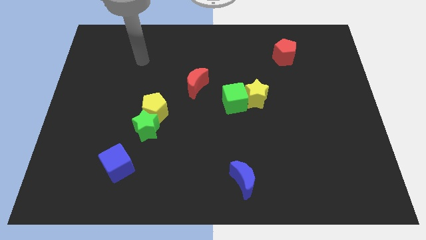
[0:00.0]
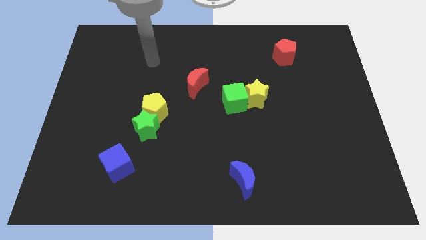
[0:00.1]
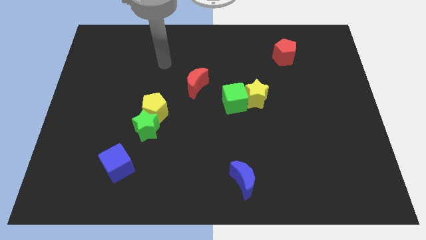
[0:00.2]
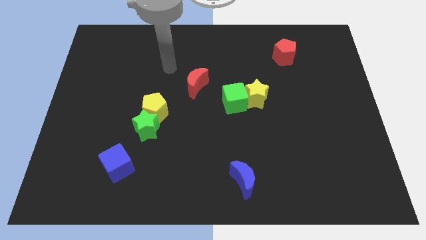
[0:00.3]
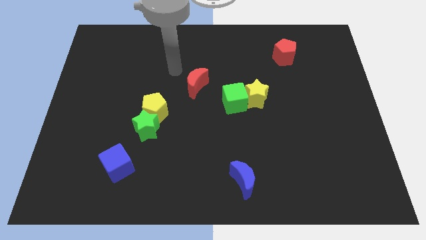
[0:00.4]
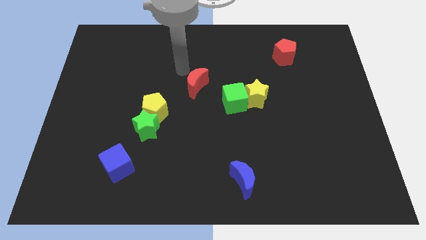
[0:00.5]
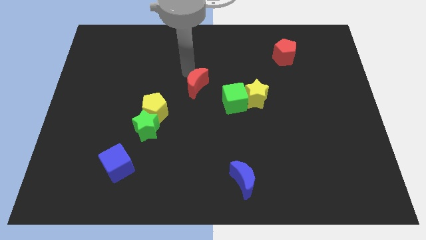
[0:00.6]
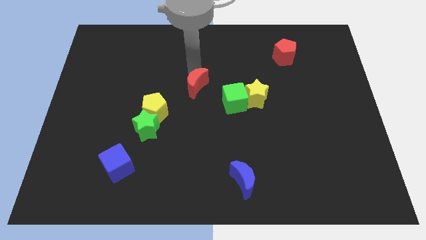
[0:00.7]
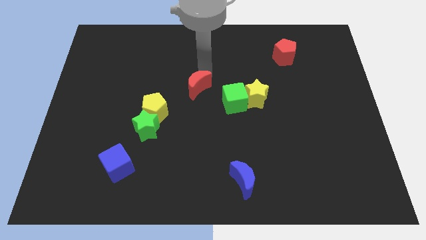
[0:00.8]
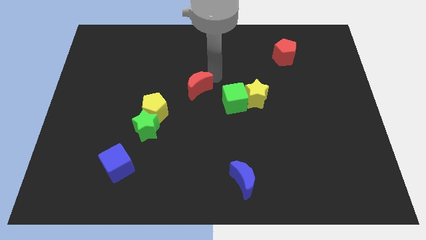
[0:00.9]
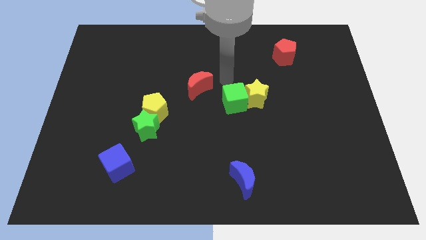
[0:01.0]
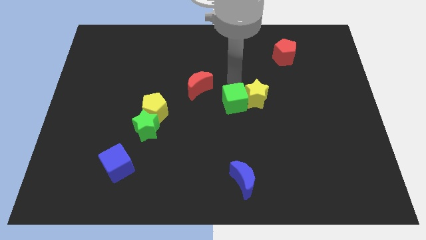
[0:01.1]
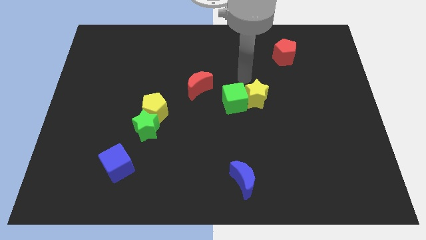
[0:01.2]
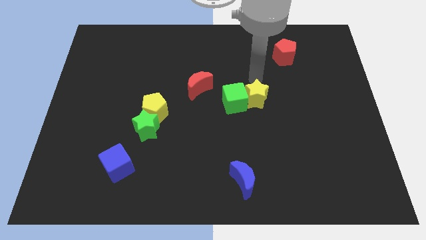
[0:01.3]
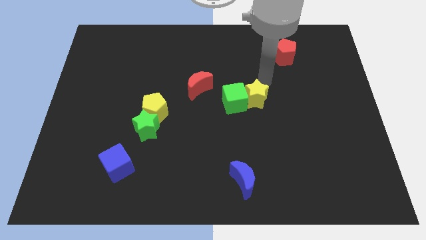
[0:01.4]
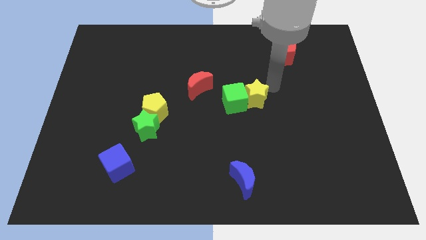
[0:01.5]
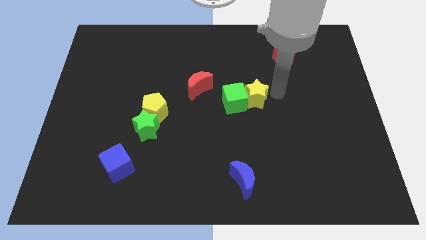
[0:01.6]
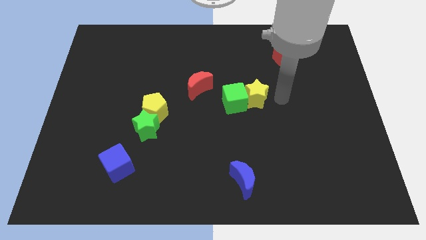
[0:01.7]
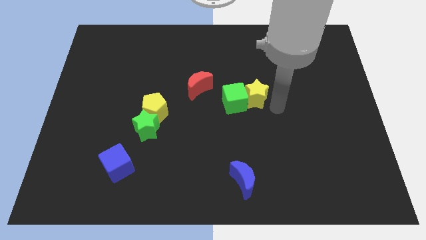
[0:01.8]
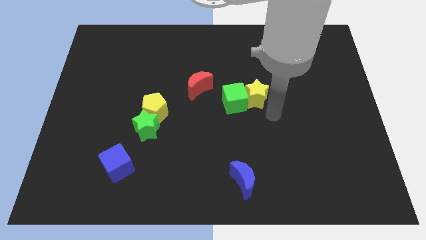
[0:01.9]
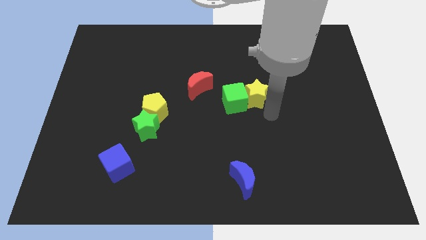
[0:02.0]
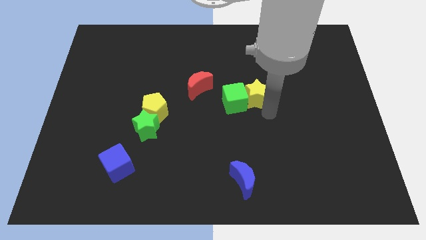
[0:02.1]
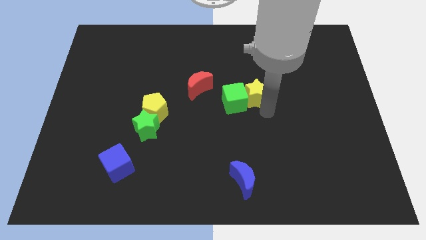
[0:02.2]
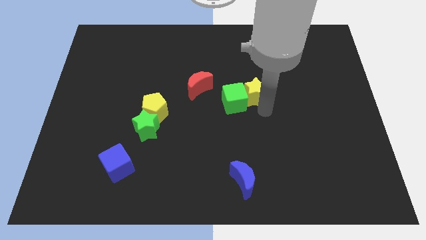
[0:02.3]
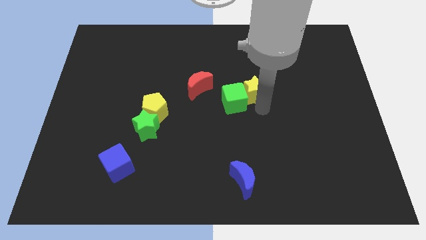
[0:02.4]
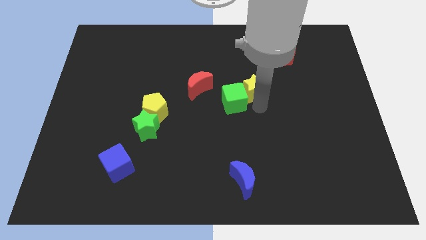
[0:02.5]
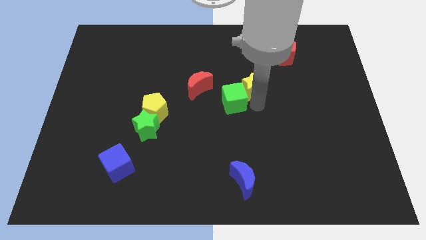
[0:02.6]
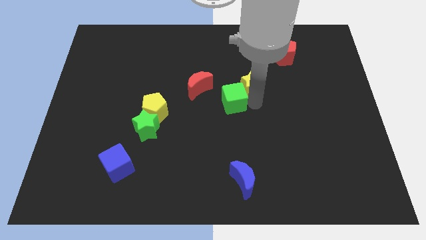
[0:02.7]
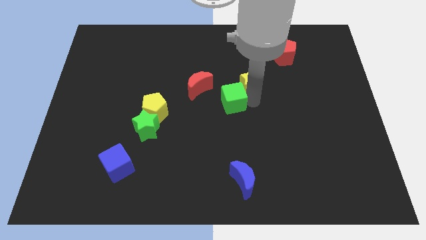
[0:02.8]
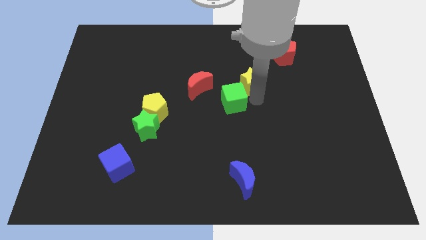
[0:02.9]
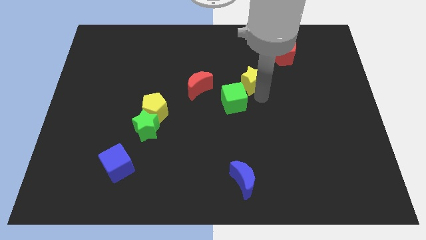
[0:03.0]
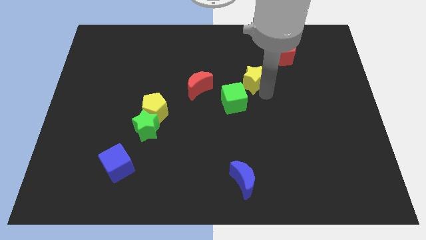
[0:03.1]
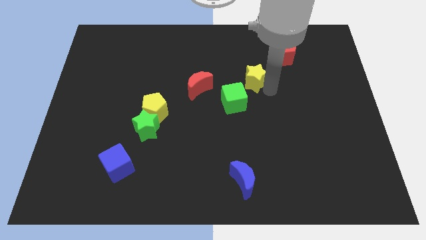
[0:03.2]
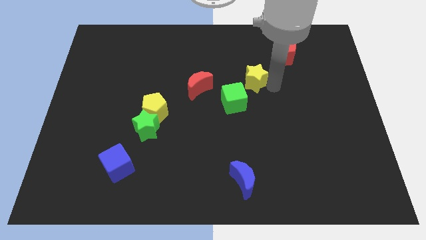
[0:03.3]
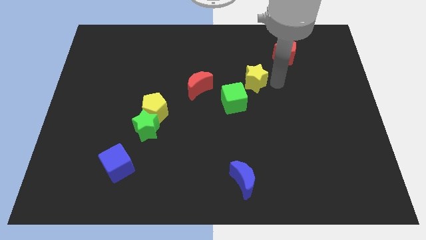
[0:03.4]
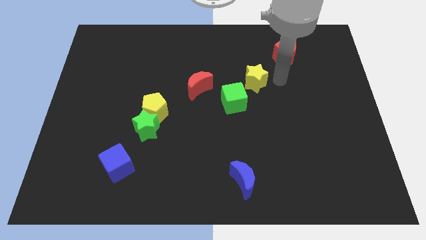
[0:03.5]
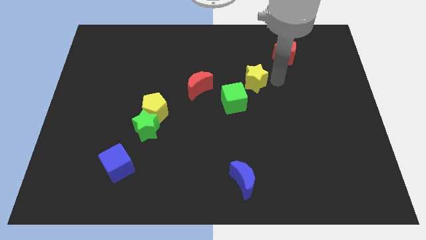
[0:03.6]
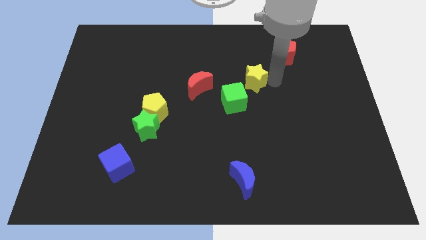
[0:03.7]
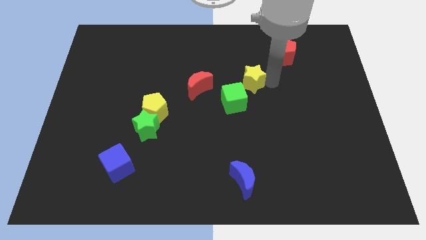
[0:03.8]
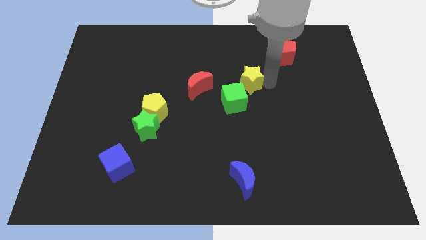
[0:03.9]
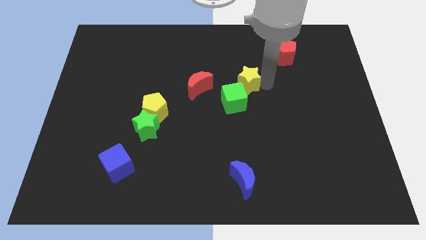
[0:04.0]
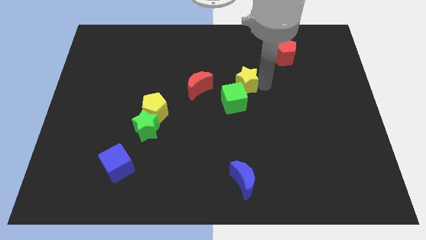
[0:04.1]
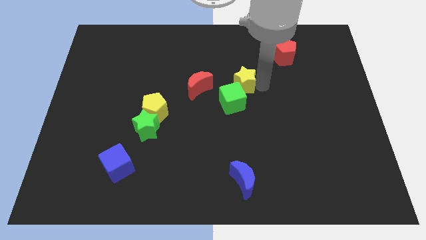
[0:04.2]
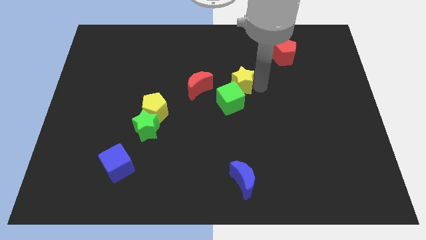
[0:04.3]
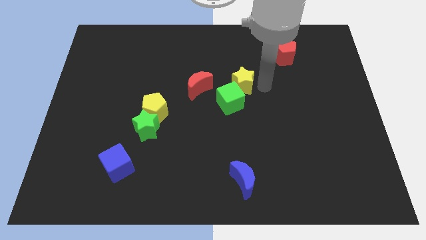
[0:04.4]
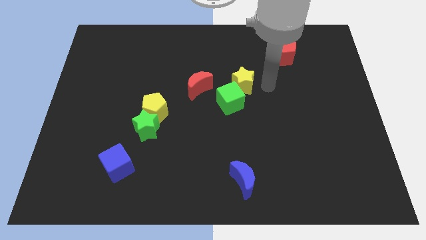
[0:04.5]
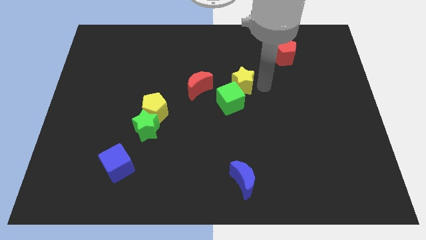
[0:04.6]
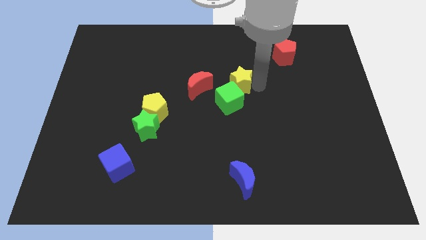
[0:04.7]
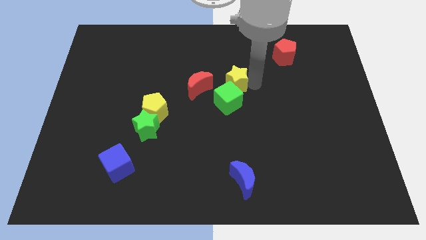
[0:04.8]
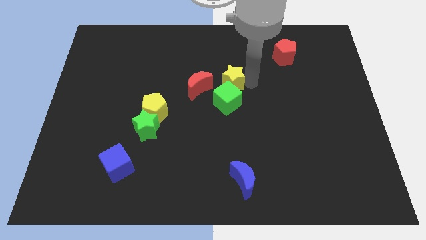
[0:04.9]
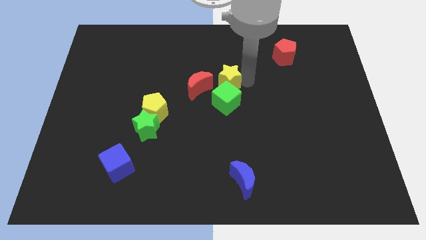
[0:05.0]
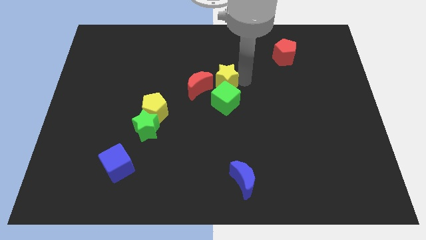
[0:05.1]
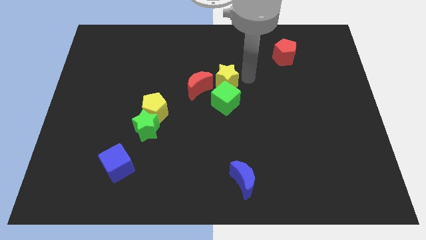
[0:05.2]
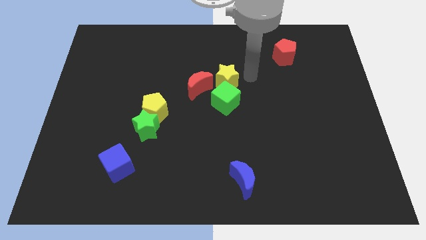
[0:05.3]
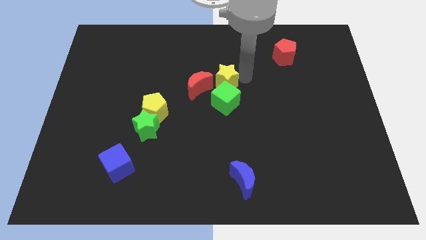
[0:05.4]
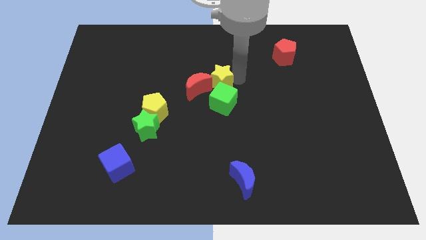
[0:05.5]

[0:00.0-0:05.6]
put the yellow star next to the red moon

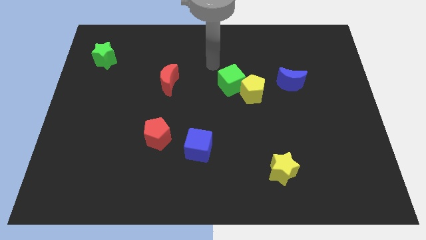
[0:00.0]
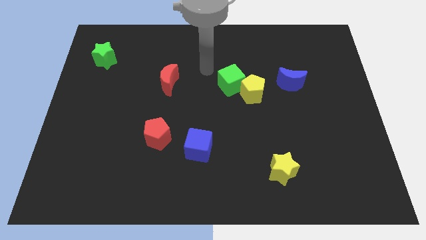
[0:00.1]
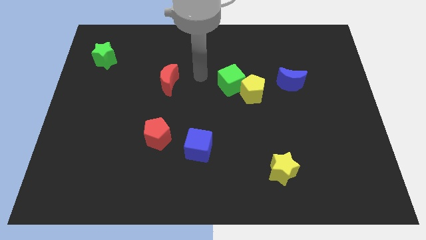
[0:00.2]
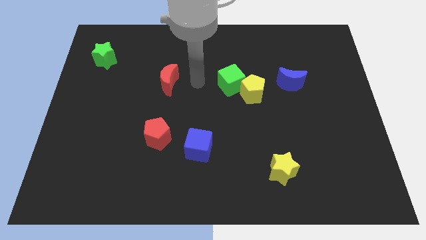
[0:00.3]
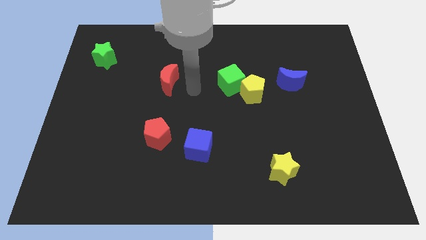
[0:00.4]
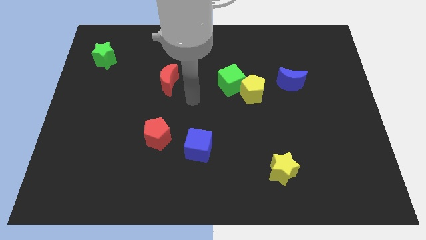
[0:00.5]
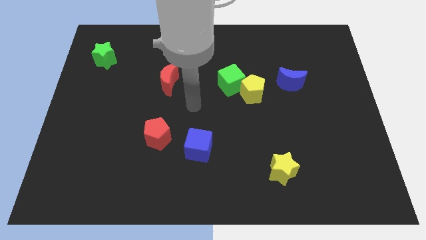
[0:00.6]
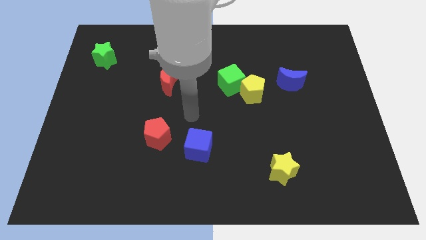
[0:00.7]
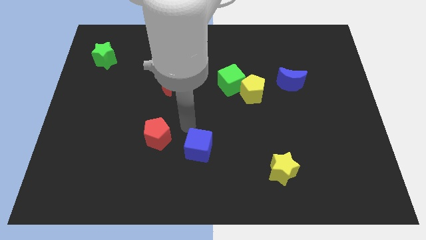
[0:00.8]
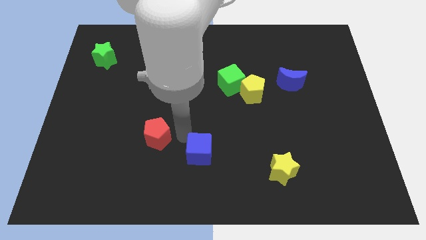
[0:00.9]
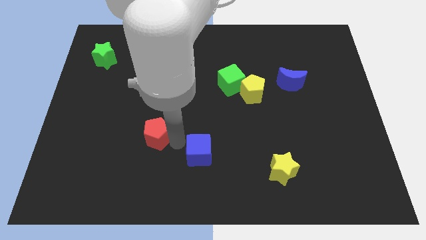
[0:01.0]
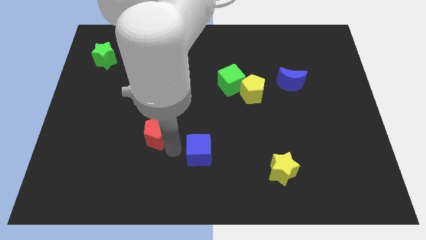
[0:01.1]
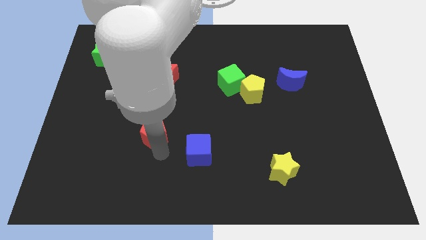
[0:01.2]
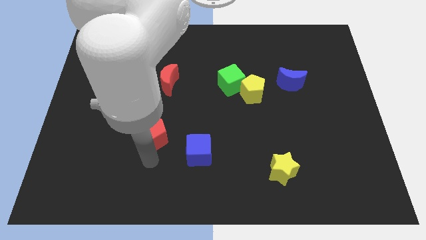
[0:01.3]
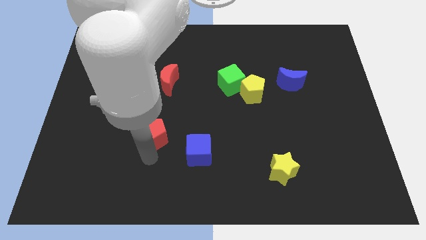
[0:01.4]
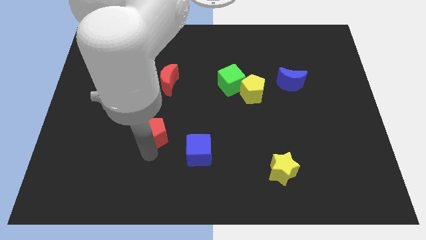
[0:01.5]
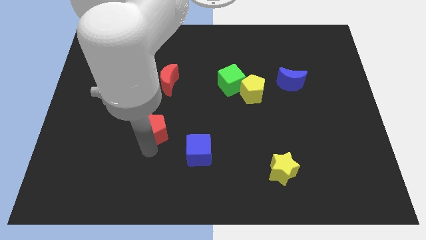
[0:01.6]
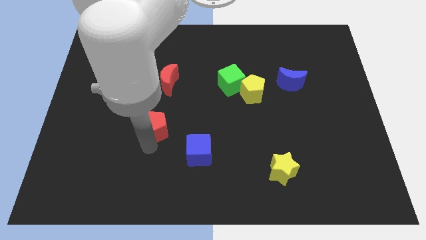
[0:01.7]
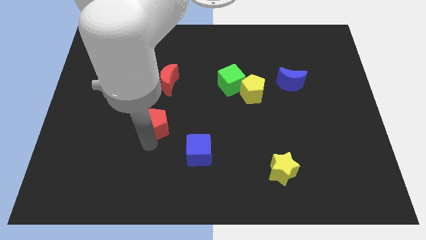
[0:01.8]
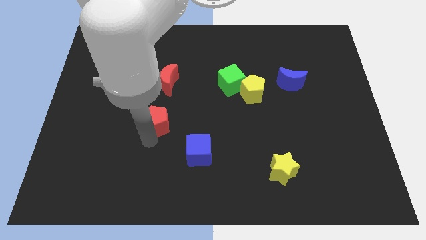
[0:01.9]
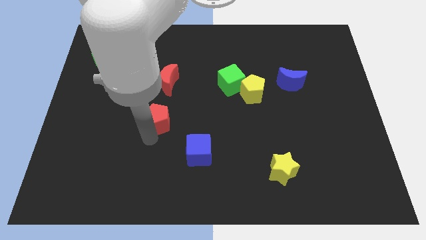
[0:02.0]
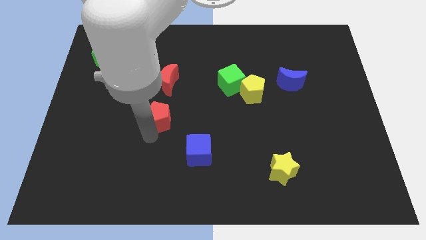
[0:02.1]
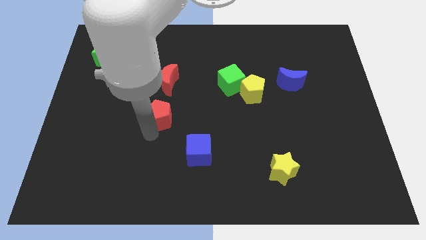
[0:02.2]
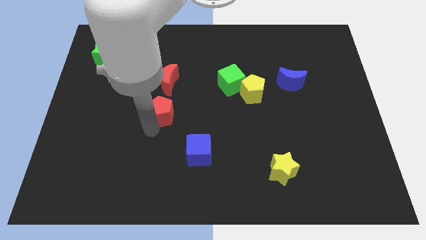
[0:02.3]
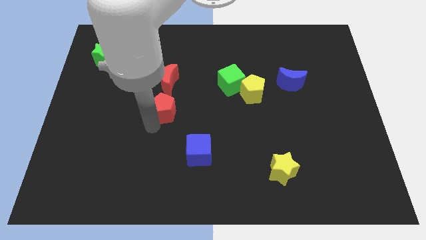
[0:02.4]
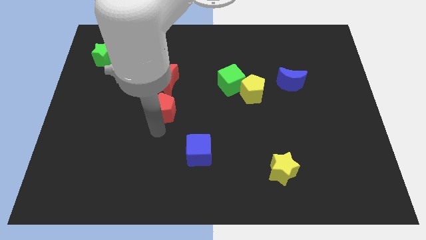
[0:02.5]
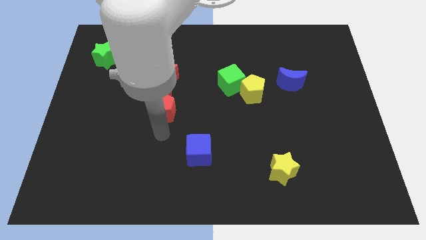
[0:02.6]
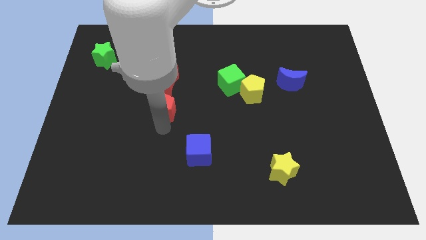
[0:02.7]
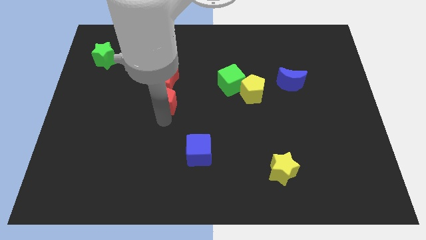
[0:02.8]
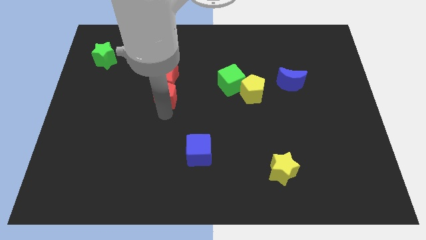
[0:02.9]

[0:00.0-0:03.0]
move the red pentagon next to the red moon
